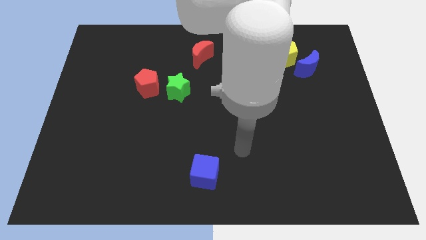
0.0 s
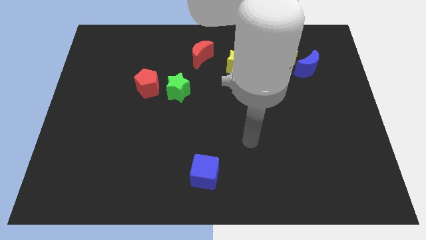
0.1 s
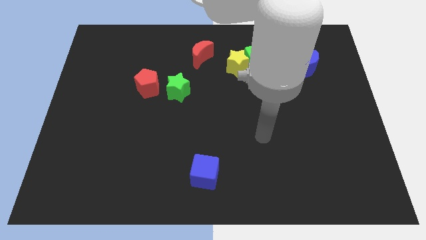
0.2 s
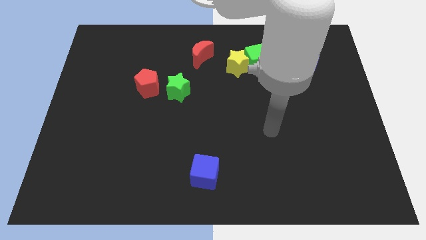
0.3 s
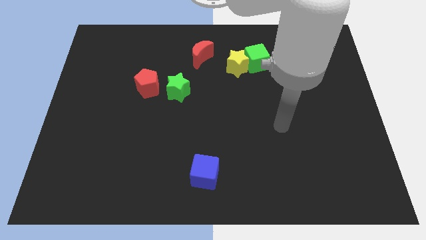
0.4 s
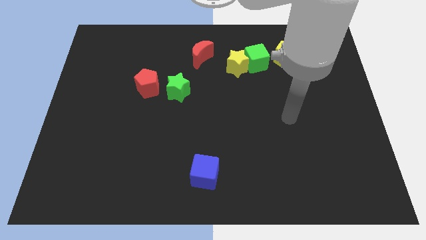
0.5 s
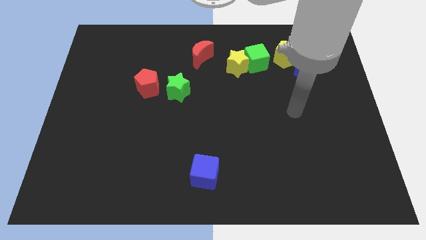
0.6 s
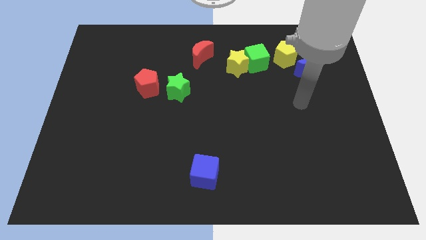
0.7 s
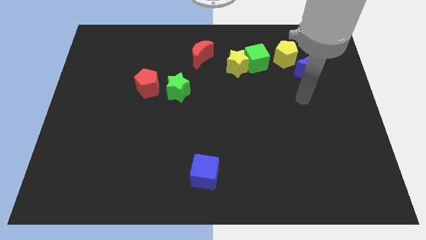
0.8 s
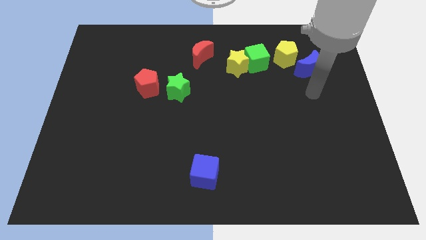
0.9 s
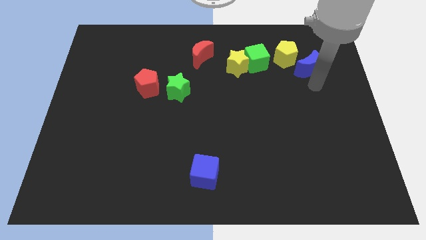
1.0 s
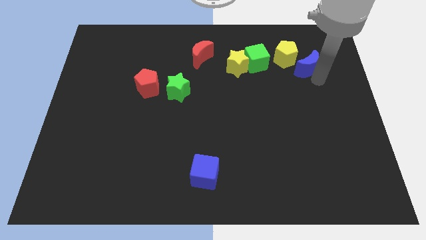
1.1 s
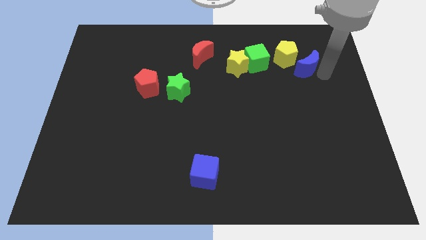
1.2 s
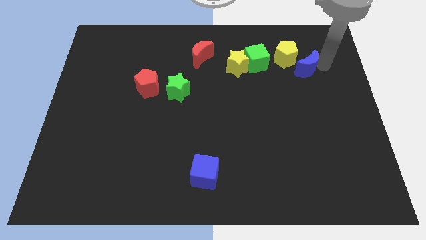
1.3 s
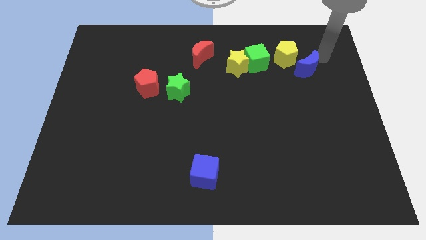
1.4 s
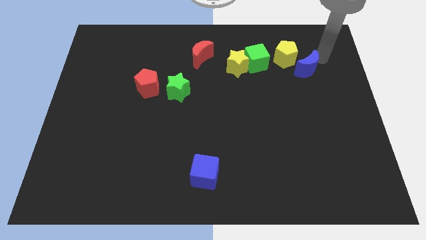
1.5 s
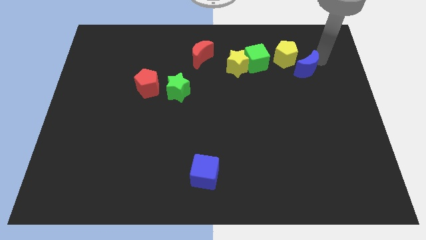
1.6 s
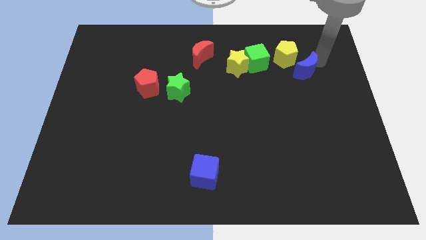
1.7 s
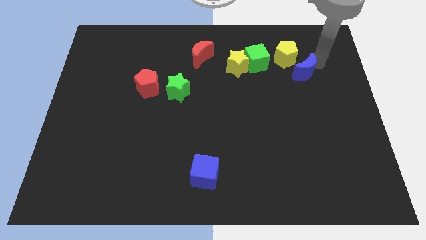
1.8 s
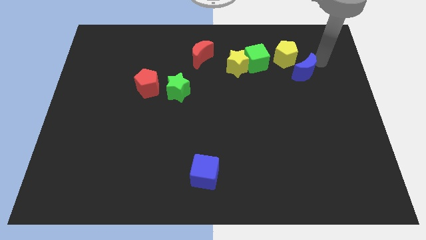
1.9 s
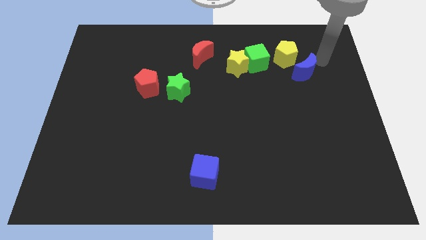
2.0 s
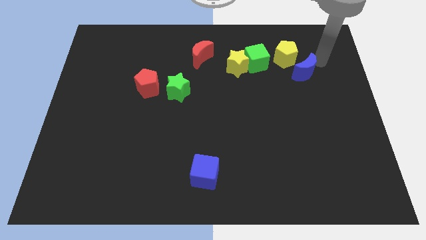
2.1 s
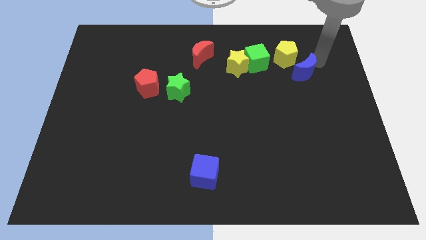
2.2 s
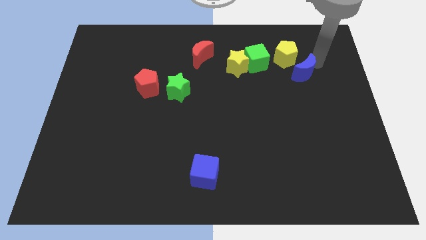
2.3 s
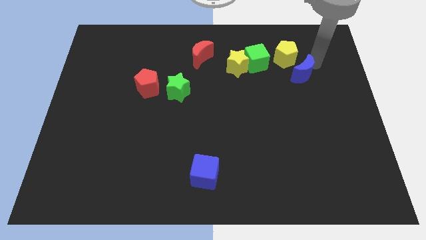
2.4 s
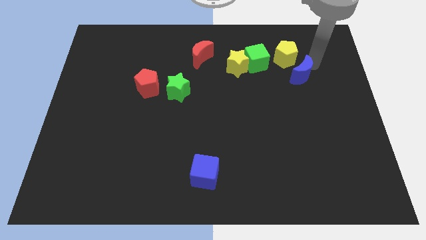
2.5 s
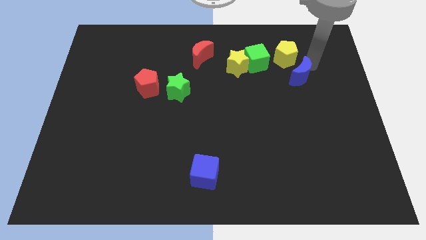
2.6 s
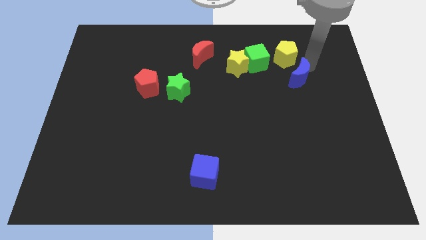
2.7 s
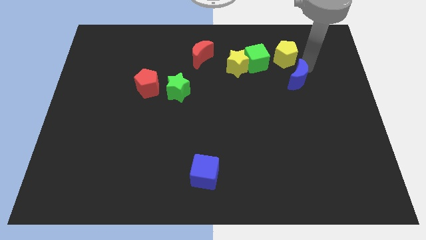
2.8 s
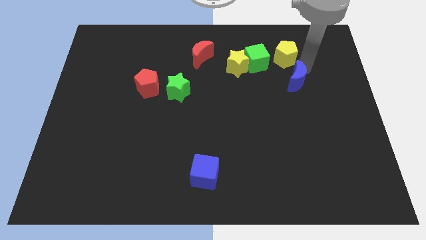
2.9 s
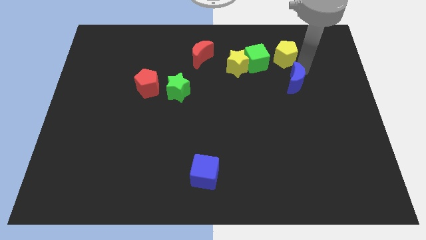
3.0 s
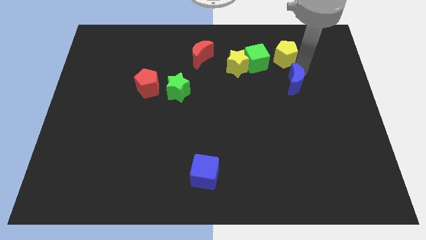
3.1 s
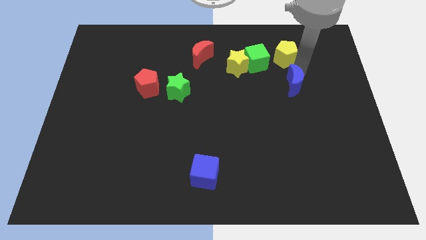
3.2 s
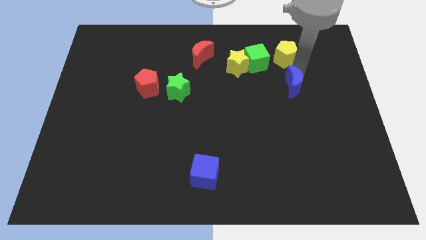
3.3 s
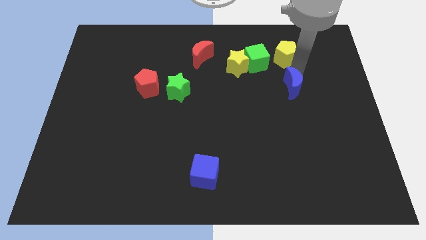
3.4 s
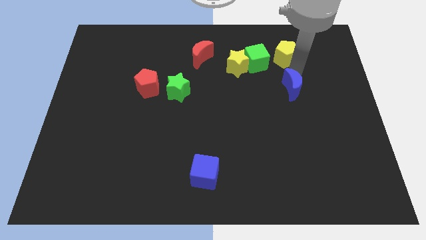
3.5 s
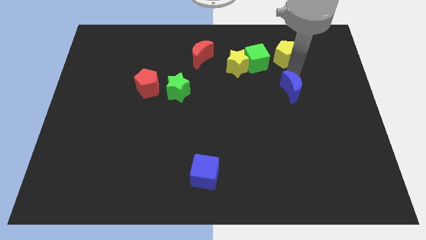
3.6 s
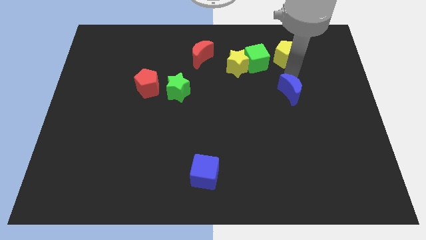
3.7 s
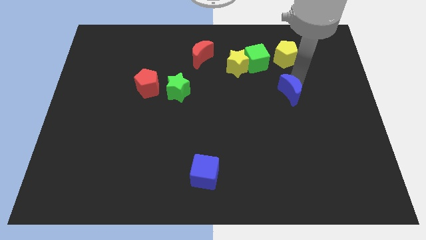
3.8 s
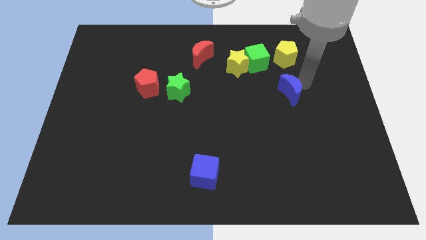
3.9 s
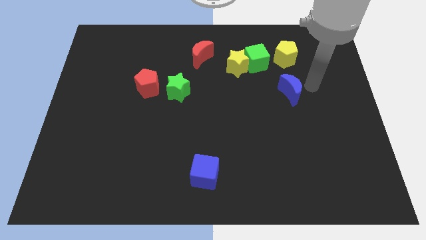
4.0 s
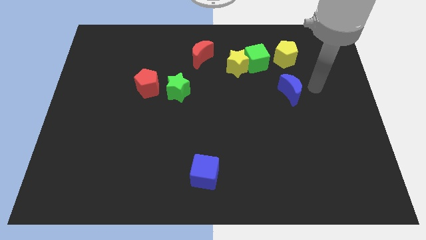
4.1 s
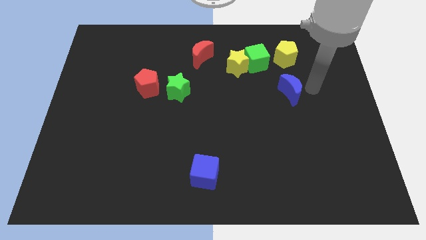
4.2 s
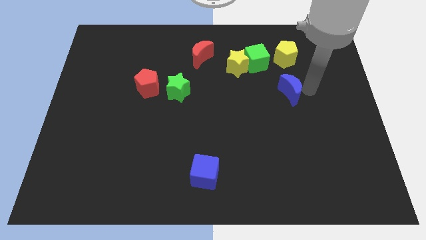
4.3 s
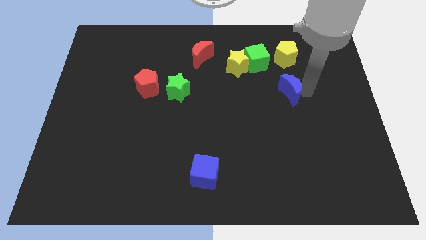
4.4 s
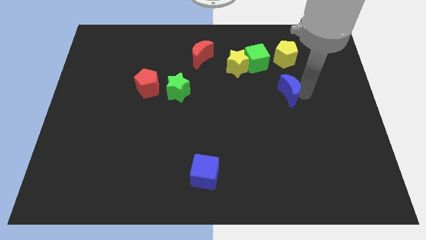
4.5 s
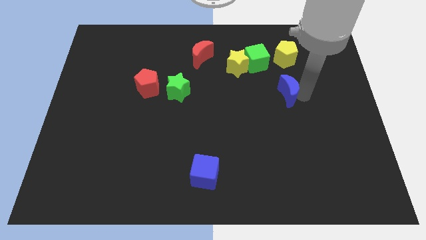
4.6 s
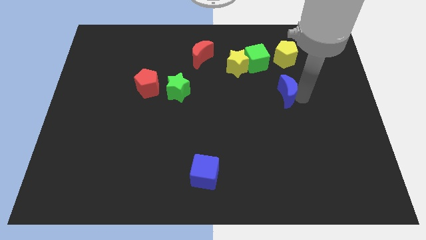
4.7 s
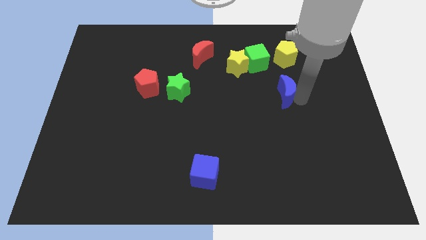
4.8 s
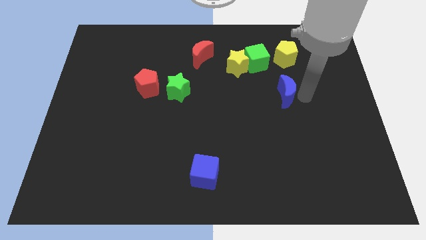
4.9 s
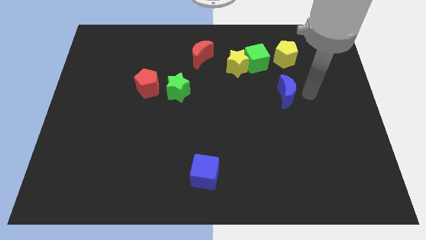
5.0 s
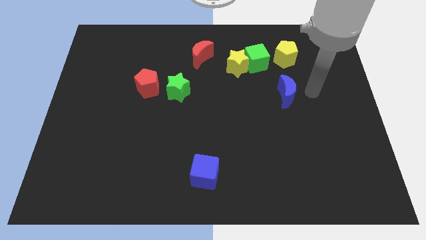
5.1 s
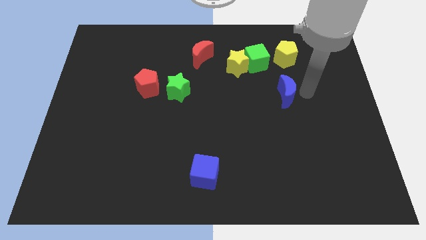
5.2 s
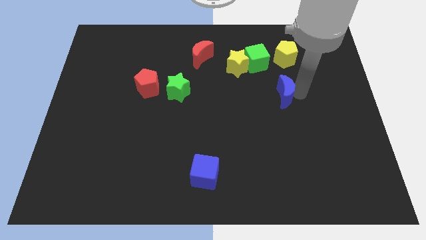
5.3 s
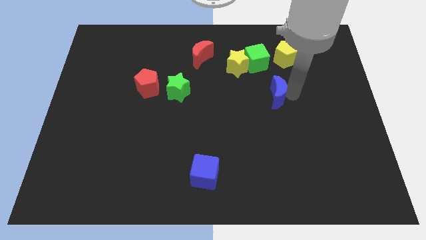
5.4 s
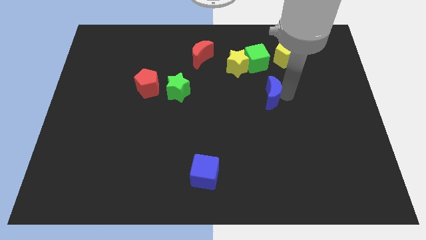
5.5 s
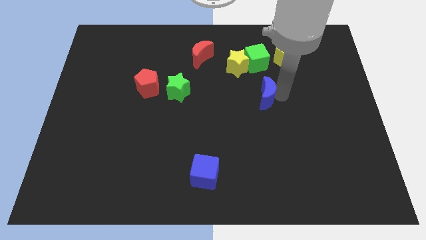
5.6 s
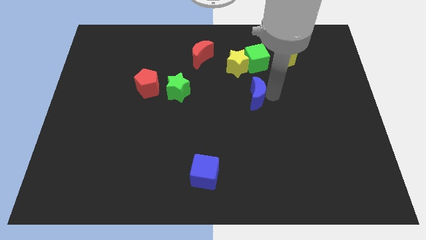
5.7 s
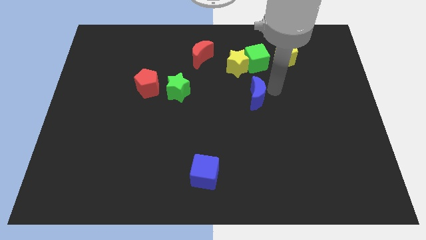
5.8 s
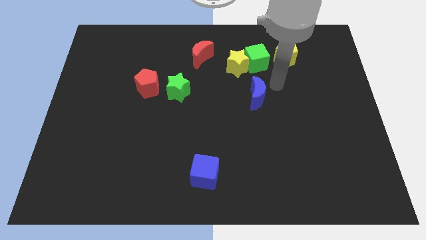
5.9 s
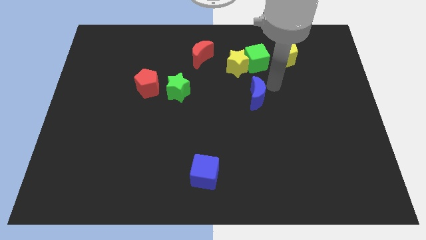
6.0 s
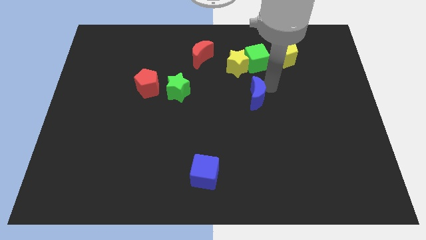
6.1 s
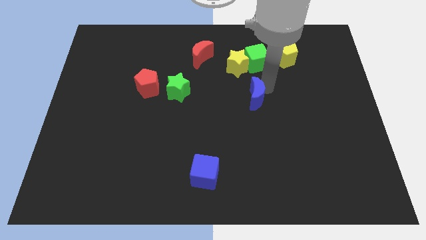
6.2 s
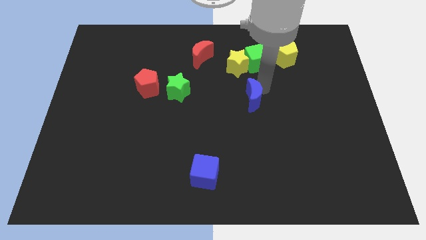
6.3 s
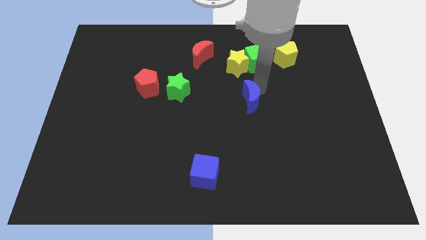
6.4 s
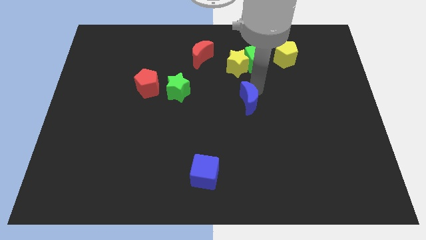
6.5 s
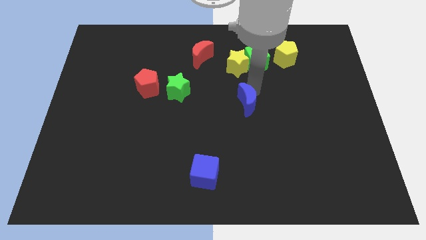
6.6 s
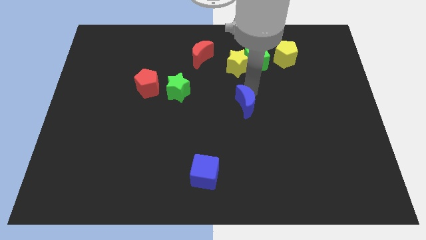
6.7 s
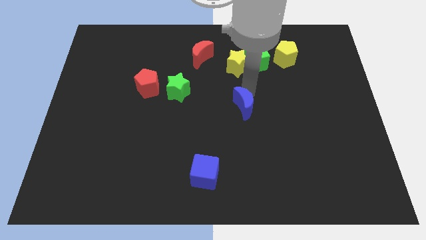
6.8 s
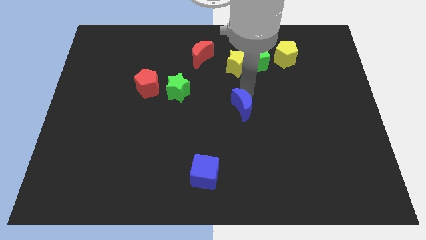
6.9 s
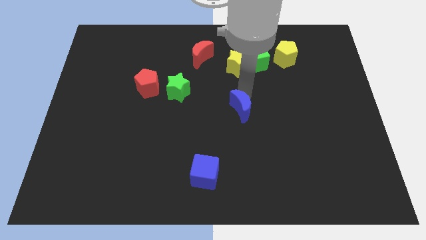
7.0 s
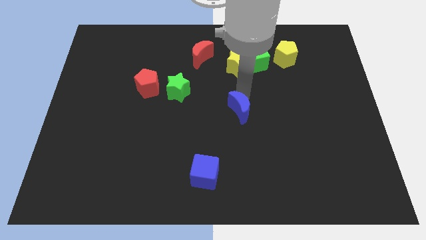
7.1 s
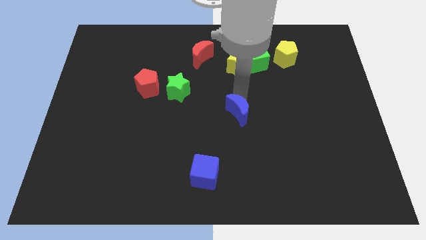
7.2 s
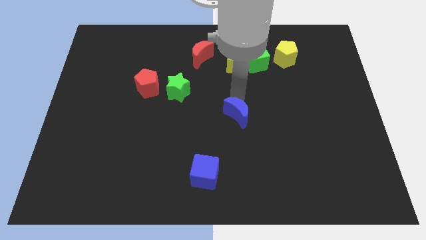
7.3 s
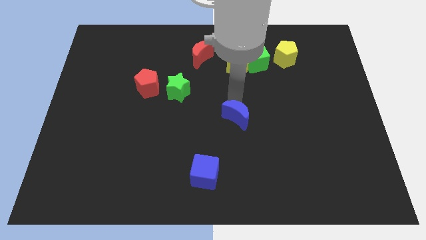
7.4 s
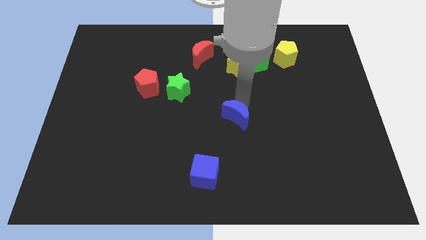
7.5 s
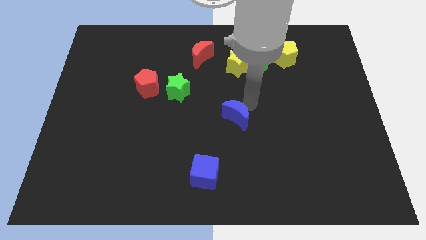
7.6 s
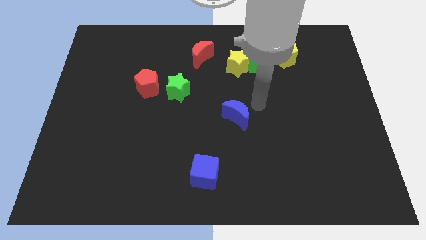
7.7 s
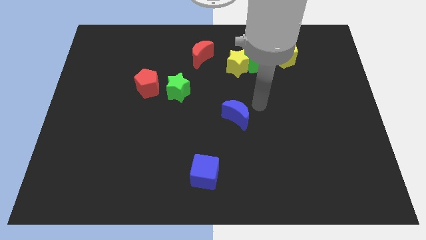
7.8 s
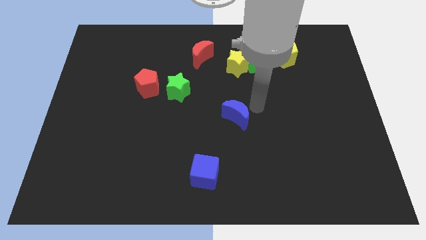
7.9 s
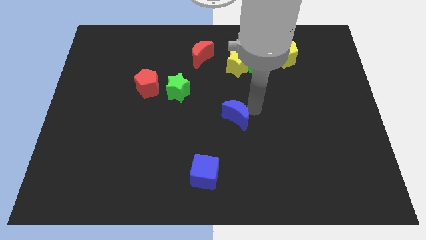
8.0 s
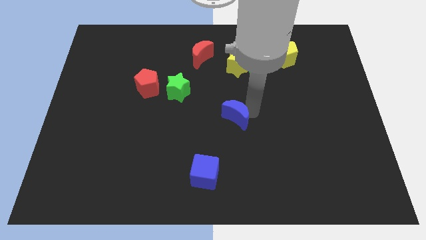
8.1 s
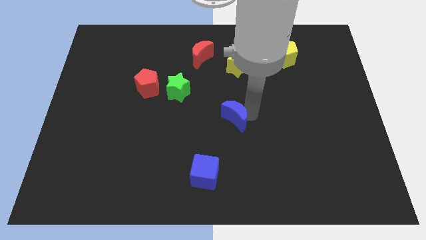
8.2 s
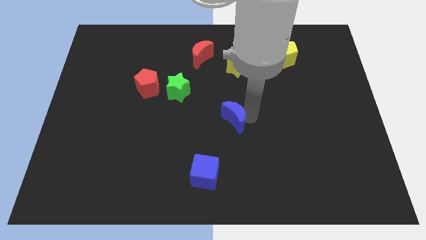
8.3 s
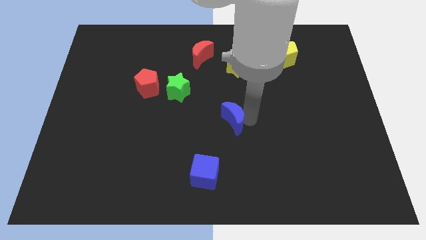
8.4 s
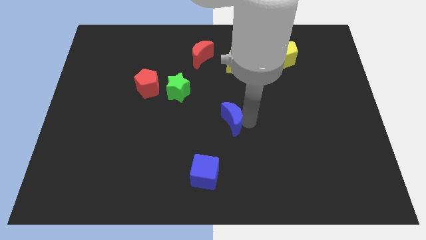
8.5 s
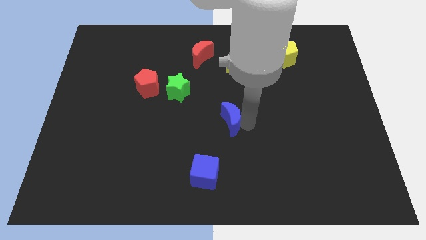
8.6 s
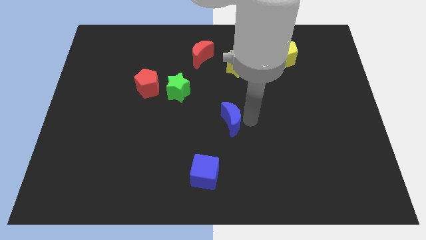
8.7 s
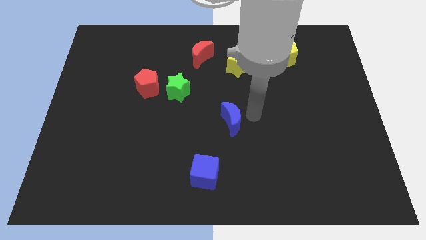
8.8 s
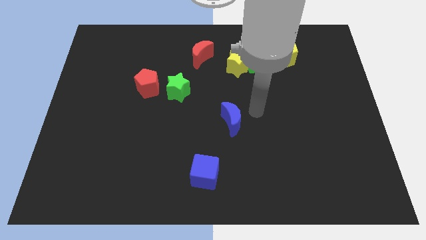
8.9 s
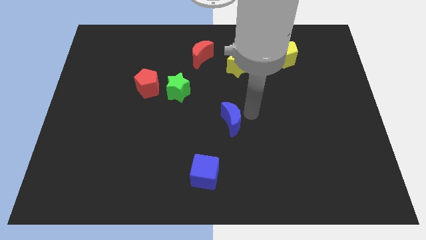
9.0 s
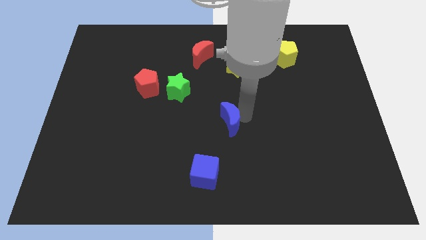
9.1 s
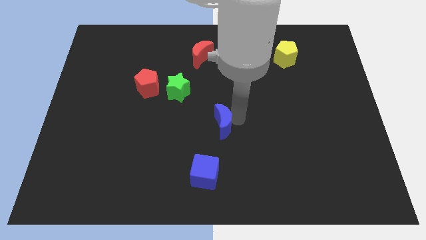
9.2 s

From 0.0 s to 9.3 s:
push the blue moon to the top of the blue cube
